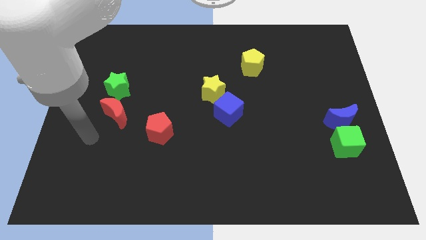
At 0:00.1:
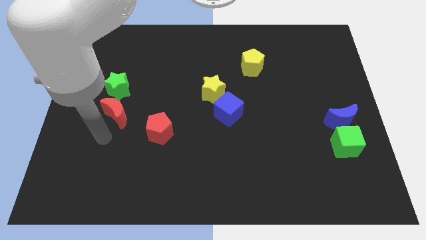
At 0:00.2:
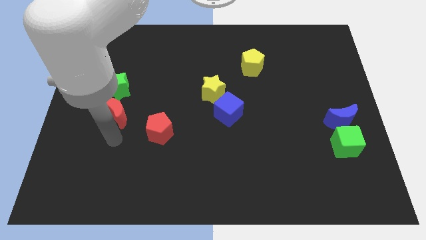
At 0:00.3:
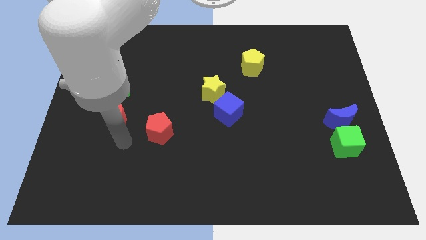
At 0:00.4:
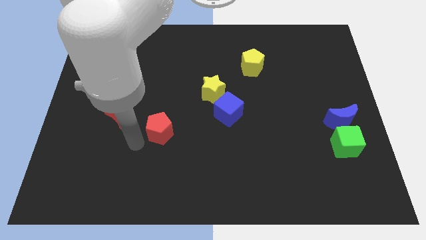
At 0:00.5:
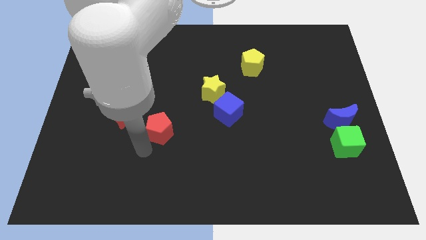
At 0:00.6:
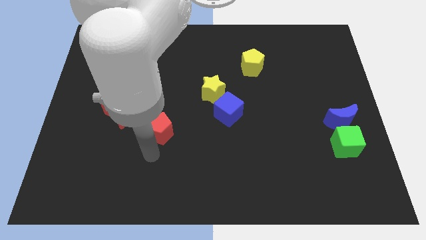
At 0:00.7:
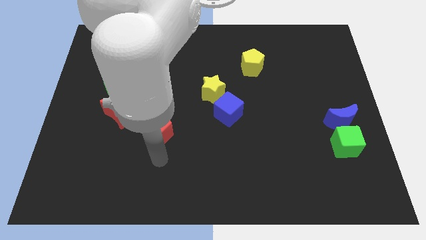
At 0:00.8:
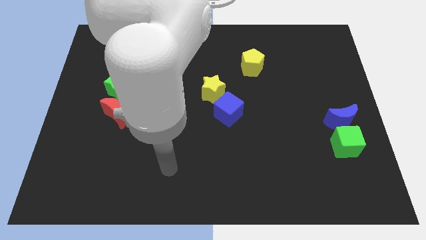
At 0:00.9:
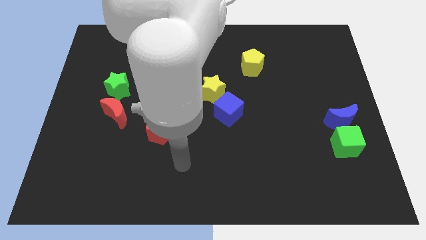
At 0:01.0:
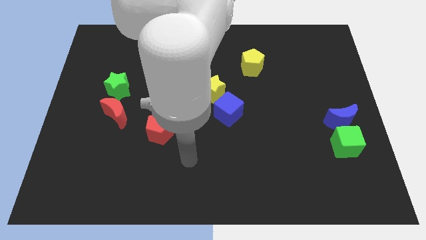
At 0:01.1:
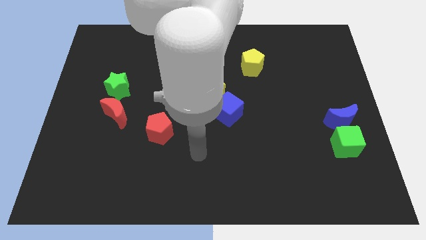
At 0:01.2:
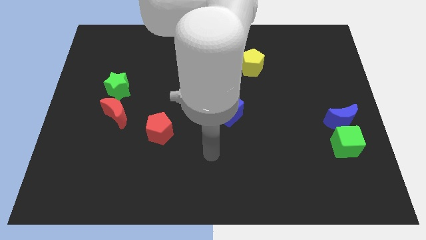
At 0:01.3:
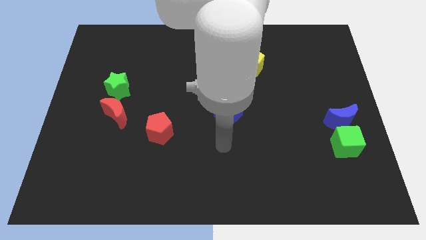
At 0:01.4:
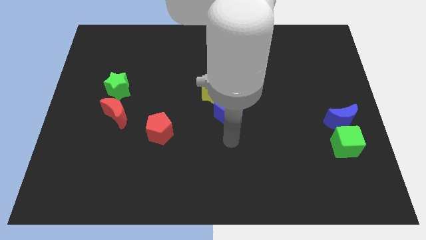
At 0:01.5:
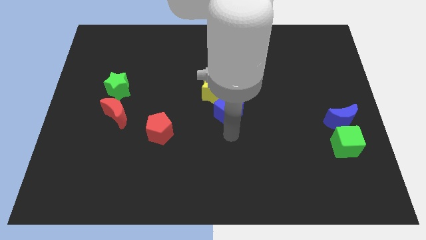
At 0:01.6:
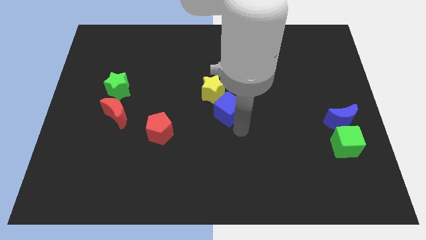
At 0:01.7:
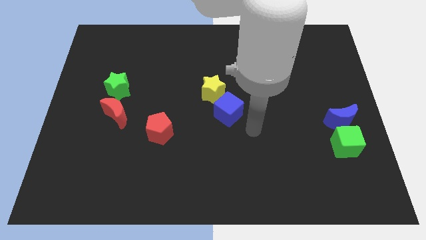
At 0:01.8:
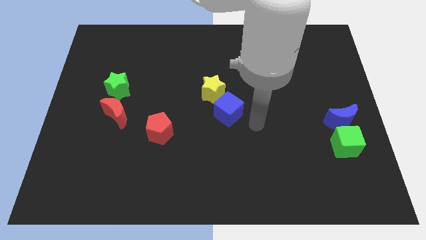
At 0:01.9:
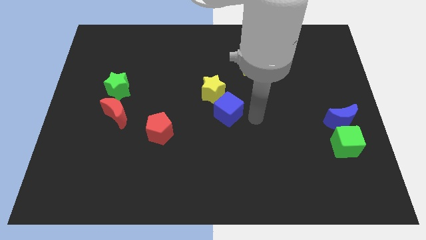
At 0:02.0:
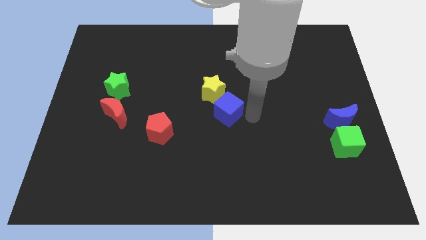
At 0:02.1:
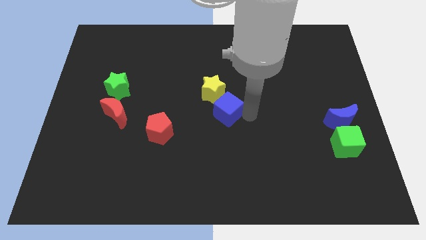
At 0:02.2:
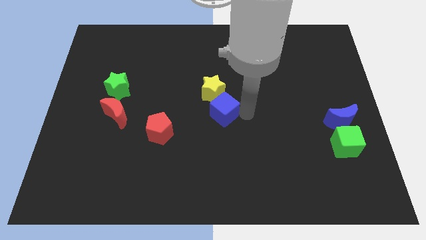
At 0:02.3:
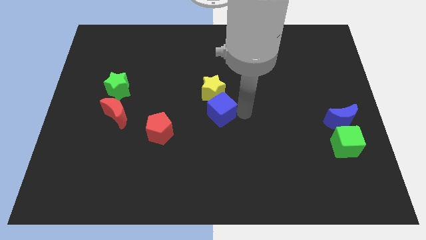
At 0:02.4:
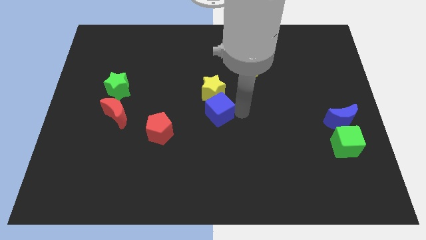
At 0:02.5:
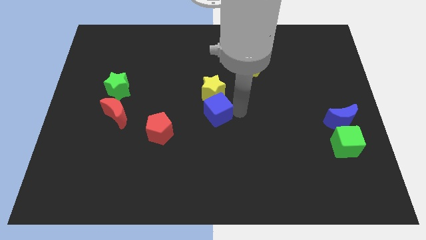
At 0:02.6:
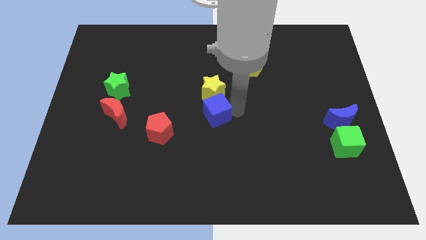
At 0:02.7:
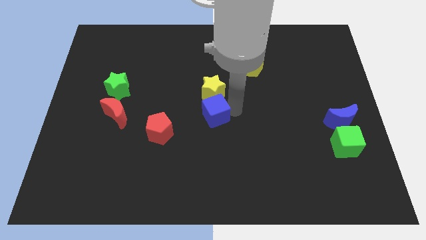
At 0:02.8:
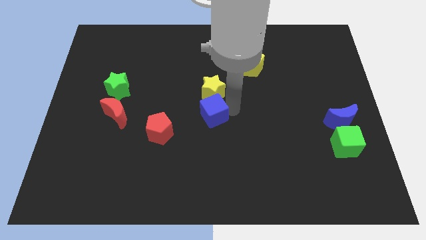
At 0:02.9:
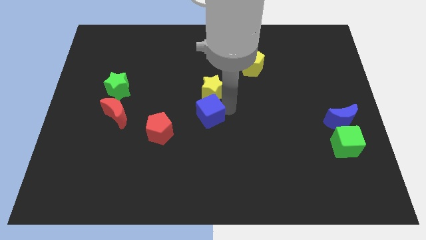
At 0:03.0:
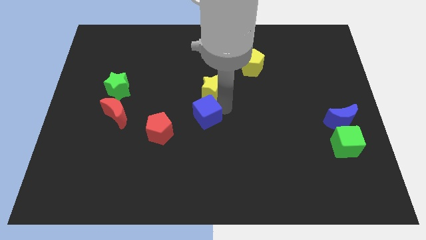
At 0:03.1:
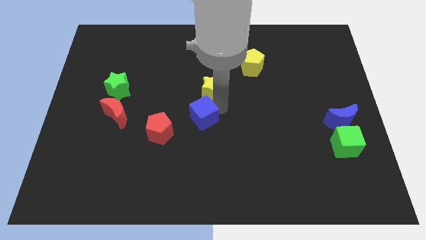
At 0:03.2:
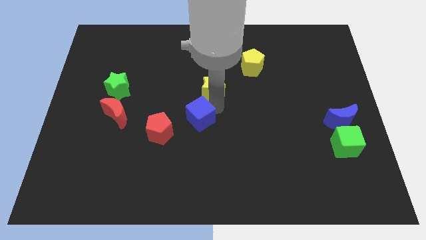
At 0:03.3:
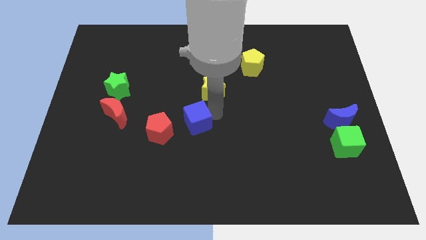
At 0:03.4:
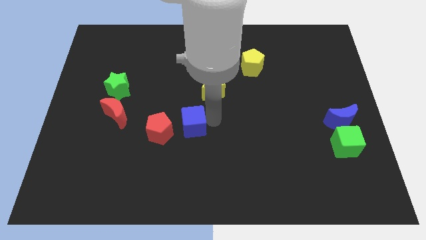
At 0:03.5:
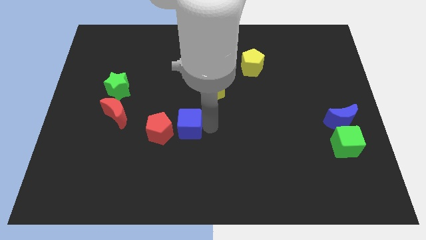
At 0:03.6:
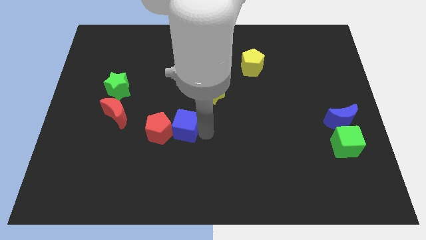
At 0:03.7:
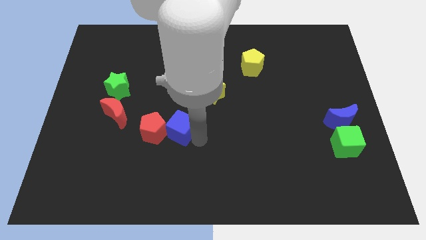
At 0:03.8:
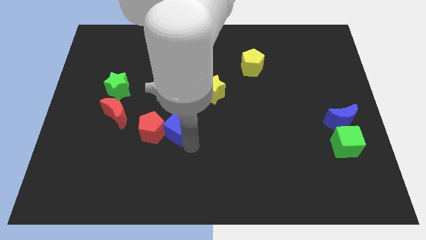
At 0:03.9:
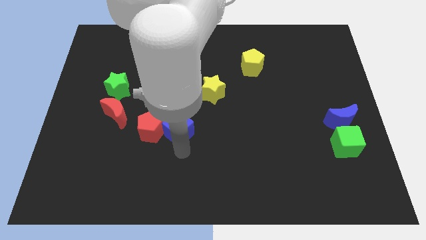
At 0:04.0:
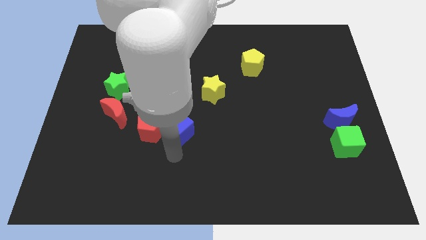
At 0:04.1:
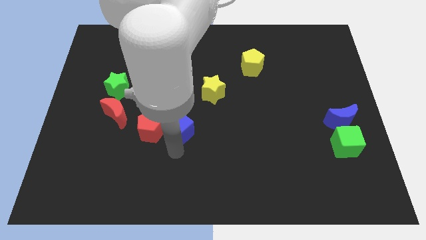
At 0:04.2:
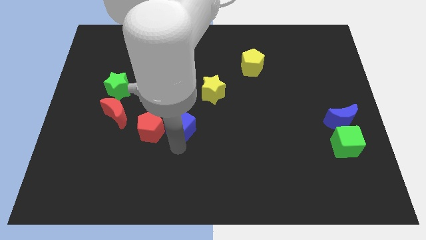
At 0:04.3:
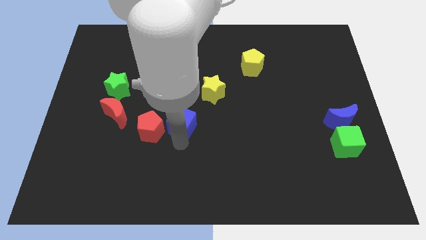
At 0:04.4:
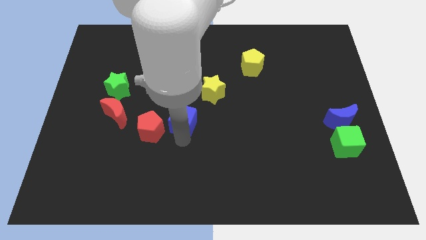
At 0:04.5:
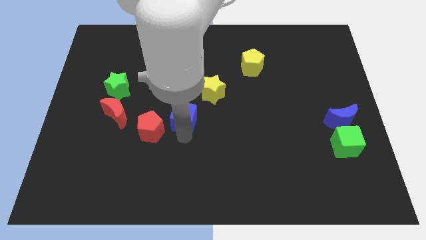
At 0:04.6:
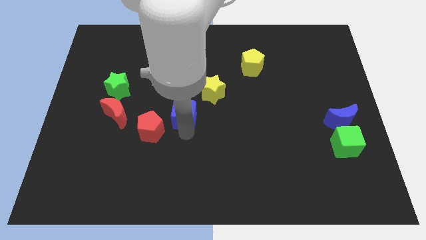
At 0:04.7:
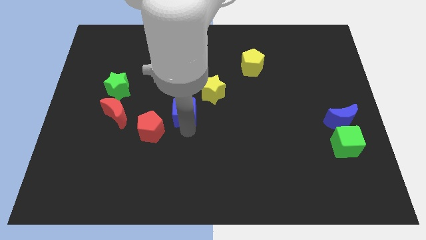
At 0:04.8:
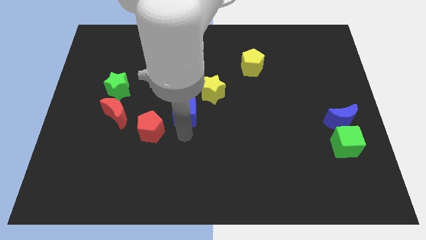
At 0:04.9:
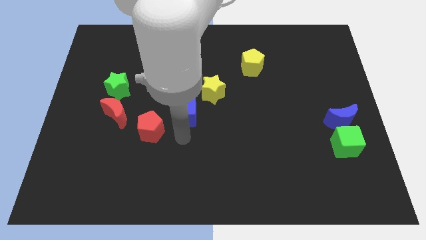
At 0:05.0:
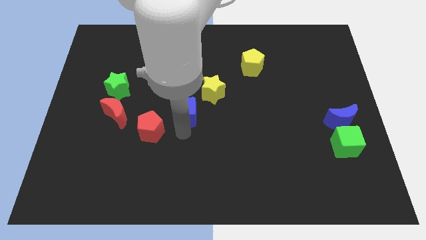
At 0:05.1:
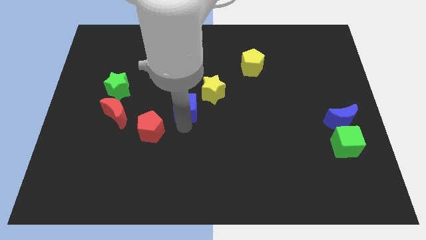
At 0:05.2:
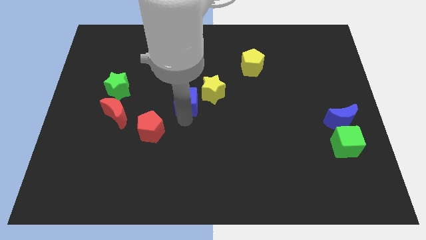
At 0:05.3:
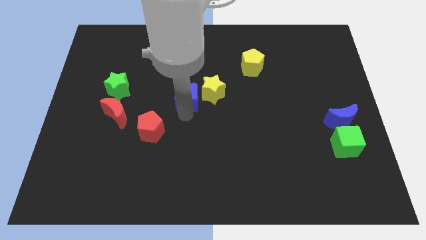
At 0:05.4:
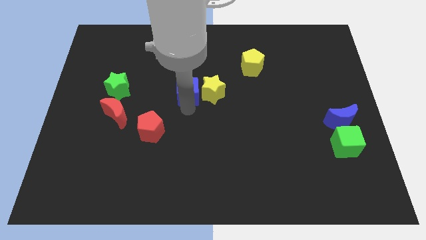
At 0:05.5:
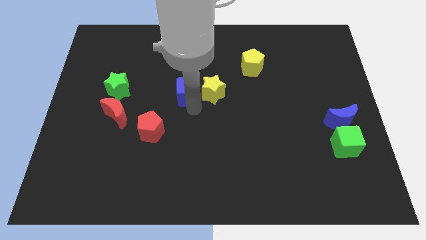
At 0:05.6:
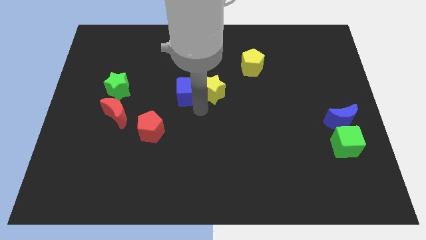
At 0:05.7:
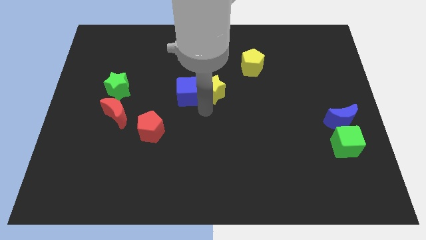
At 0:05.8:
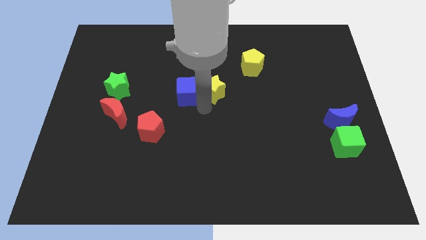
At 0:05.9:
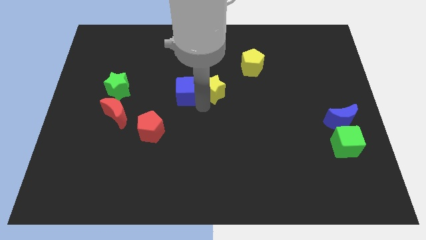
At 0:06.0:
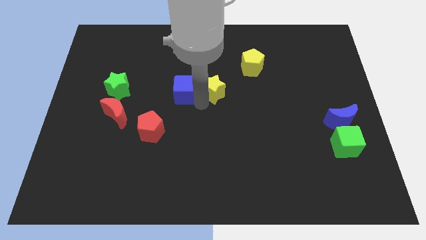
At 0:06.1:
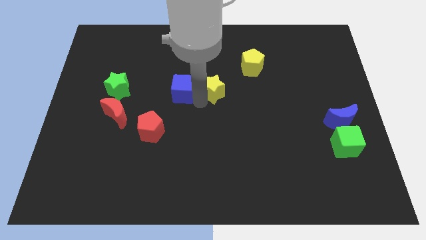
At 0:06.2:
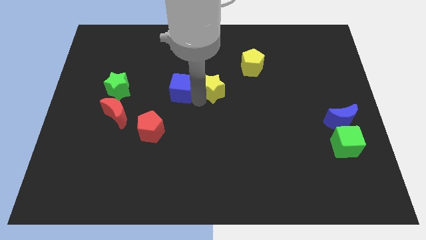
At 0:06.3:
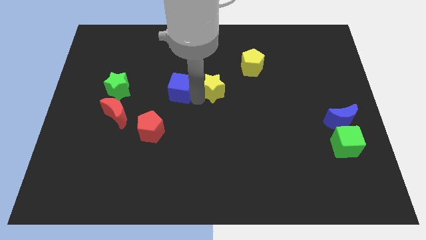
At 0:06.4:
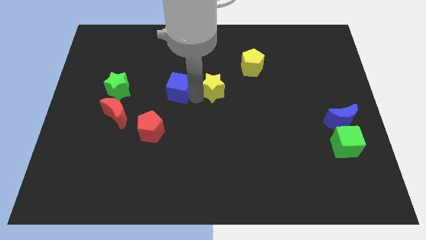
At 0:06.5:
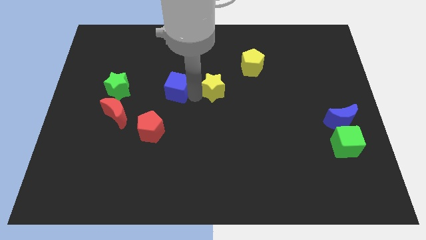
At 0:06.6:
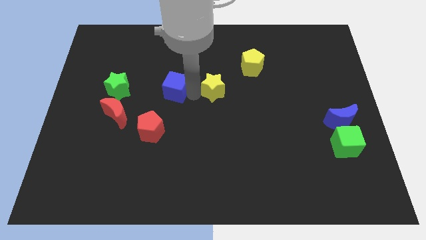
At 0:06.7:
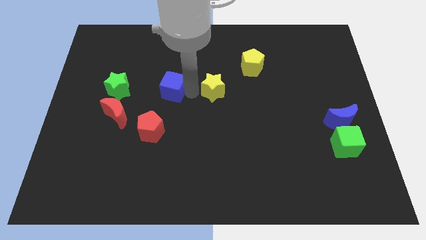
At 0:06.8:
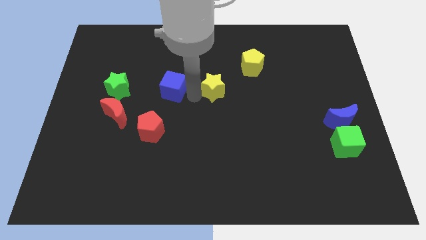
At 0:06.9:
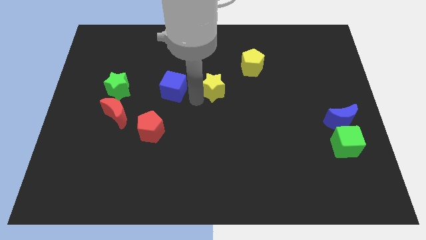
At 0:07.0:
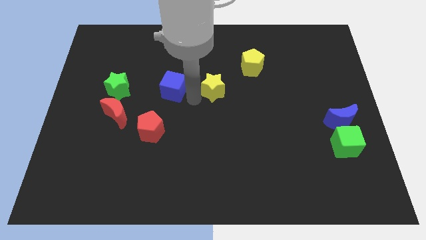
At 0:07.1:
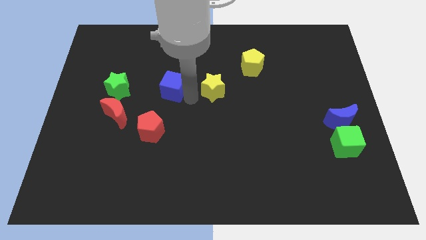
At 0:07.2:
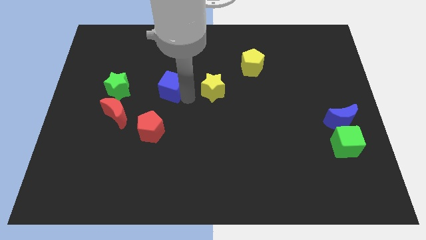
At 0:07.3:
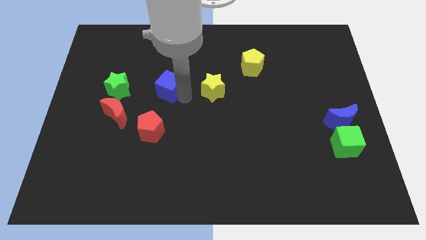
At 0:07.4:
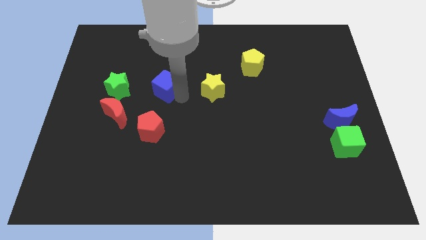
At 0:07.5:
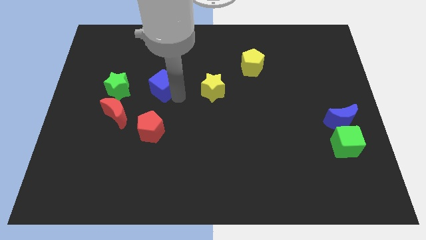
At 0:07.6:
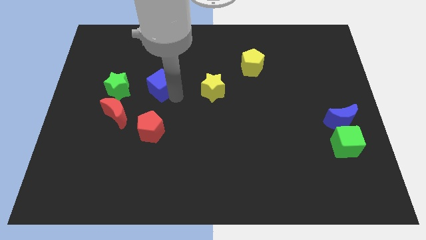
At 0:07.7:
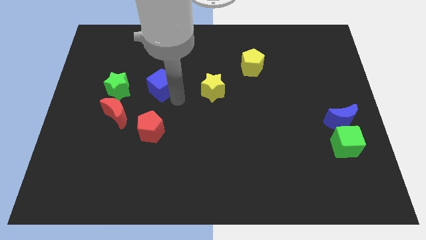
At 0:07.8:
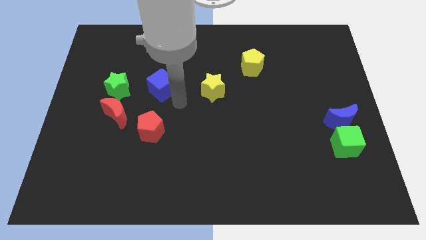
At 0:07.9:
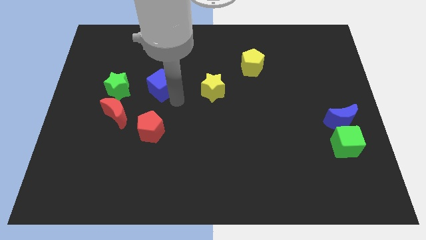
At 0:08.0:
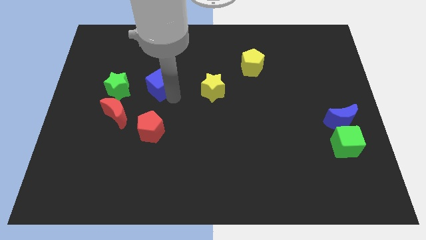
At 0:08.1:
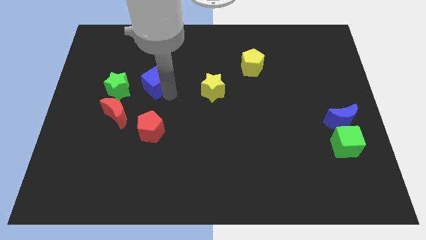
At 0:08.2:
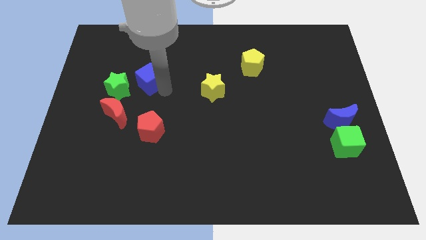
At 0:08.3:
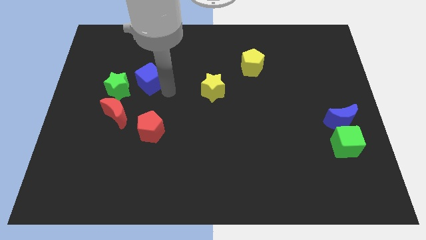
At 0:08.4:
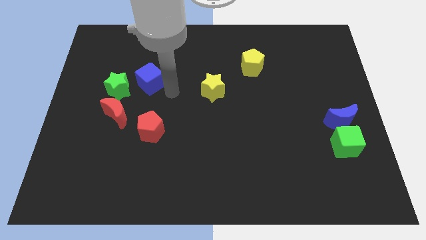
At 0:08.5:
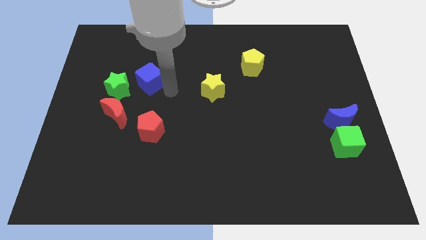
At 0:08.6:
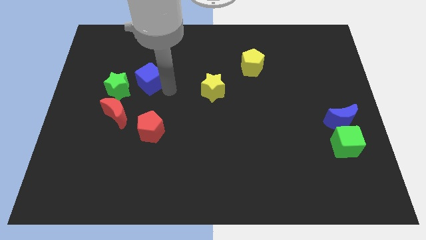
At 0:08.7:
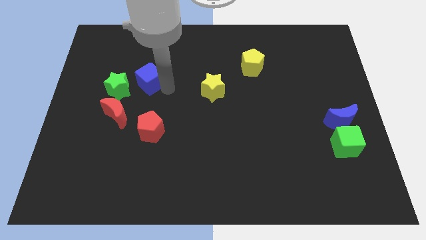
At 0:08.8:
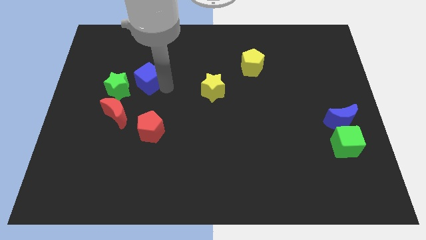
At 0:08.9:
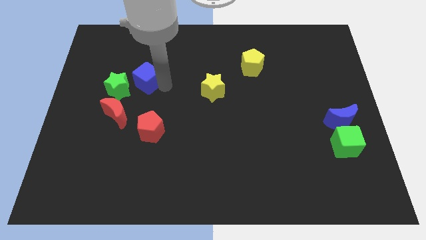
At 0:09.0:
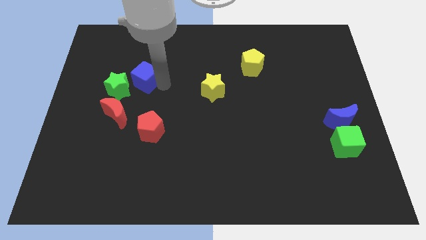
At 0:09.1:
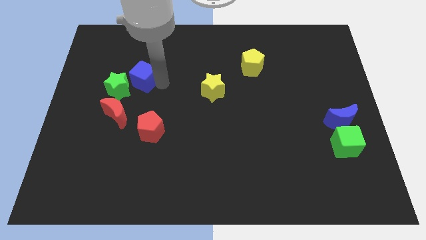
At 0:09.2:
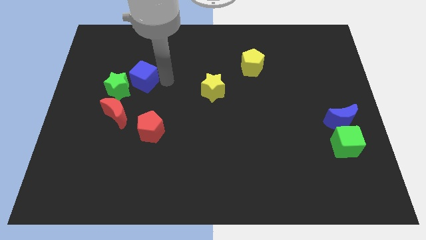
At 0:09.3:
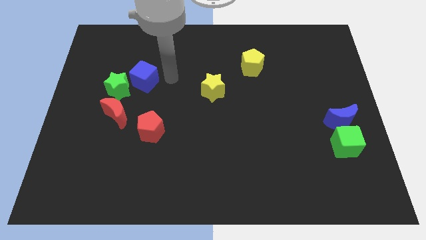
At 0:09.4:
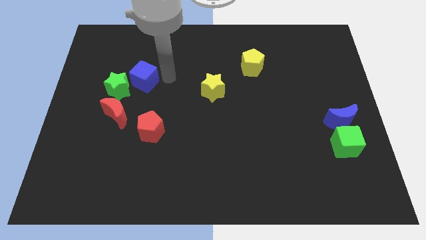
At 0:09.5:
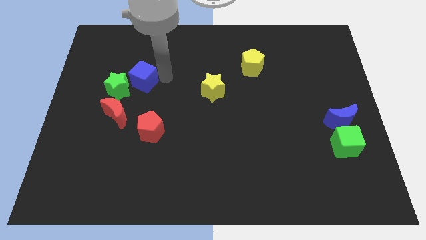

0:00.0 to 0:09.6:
put the blue cube to the top side of the red moon
